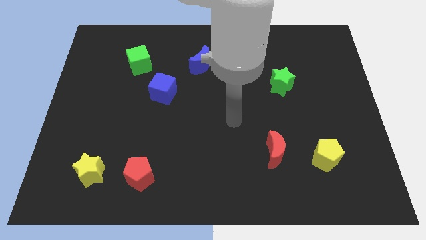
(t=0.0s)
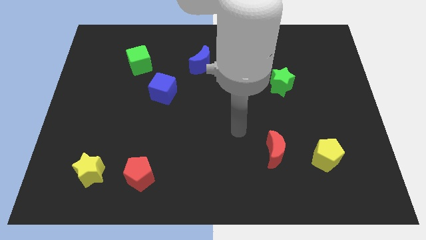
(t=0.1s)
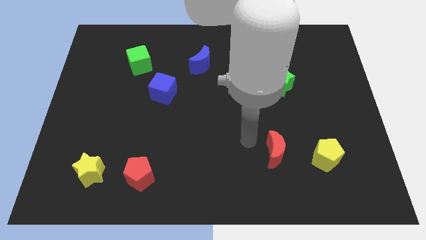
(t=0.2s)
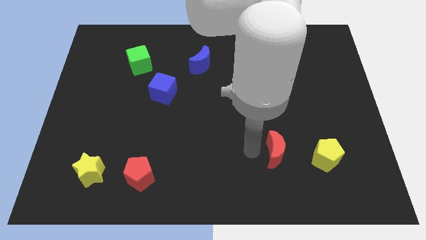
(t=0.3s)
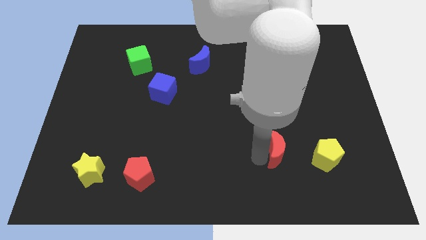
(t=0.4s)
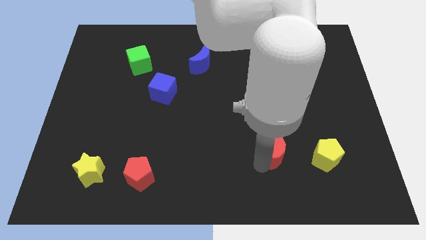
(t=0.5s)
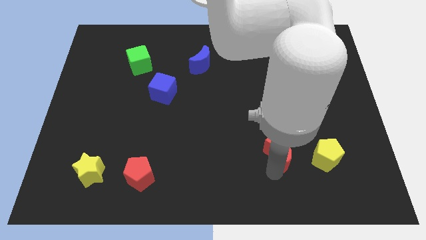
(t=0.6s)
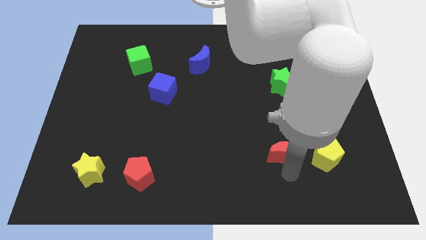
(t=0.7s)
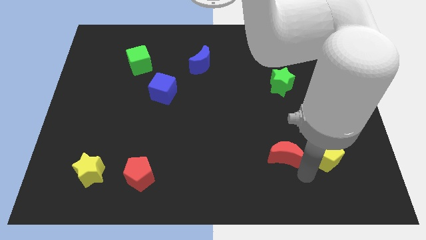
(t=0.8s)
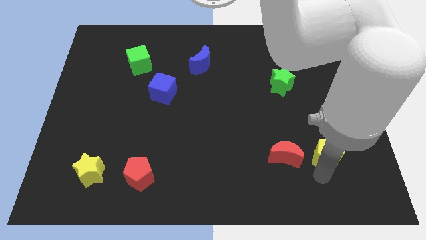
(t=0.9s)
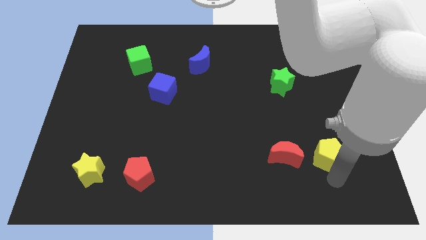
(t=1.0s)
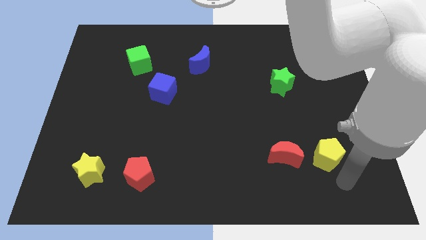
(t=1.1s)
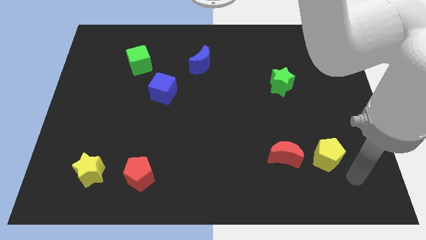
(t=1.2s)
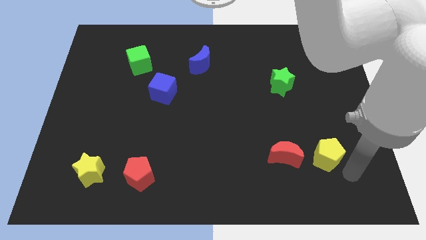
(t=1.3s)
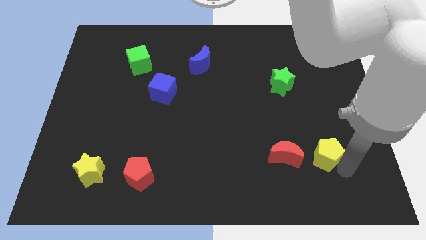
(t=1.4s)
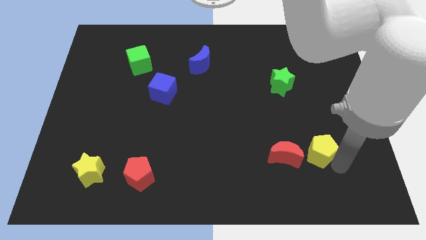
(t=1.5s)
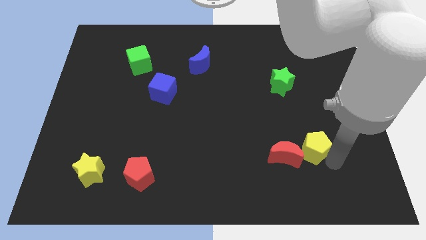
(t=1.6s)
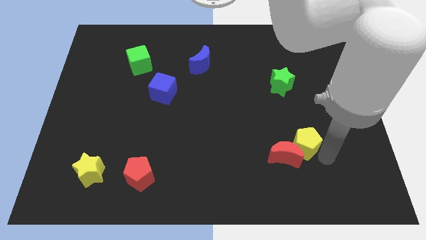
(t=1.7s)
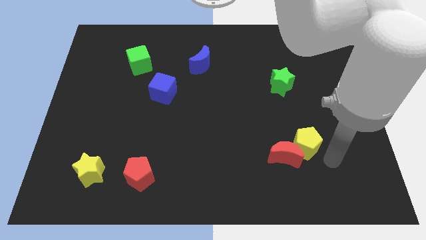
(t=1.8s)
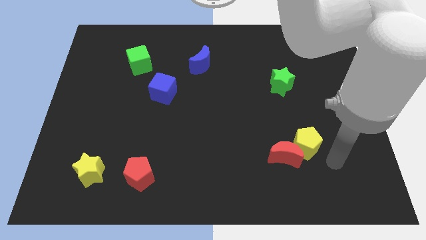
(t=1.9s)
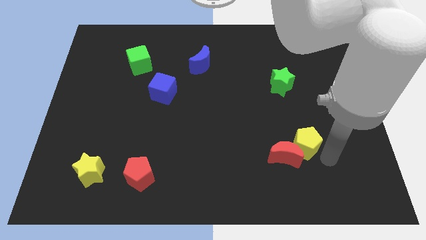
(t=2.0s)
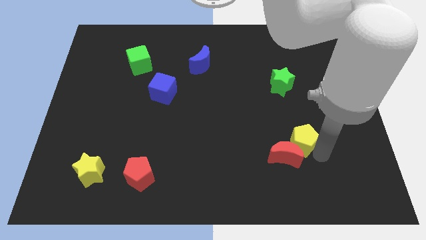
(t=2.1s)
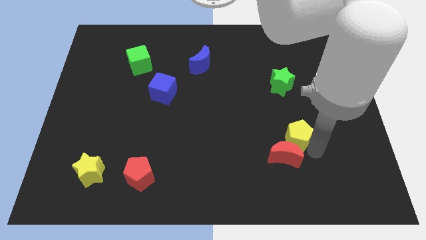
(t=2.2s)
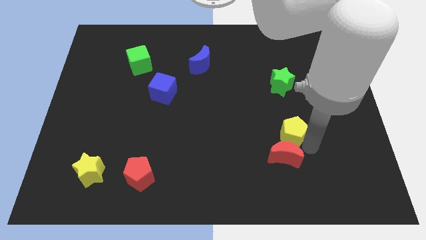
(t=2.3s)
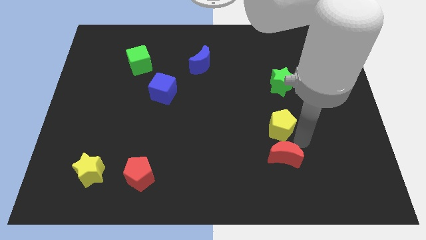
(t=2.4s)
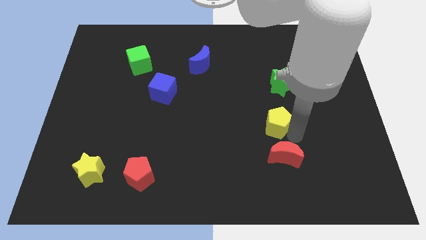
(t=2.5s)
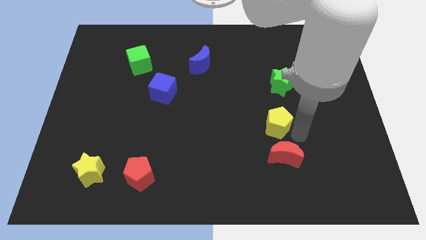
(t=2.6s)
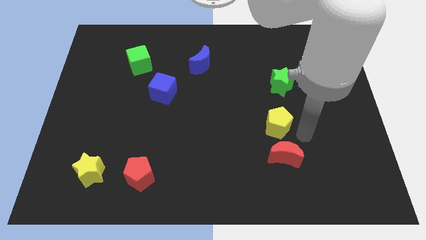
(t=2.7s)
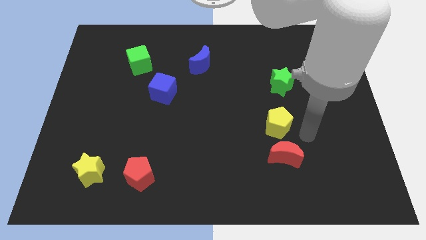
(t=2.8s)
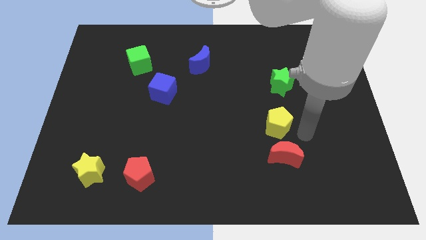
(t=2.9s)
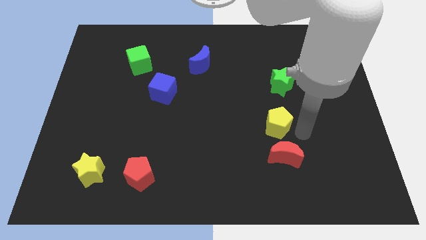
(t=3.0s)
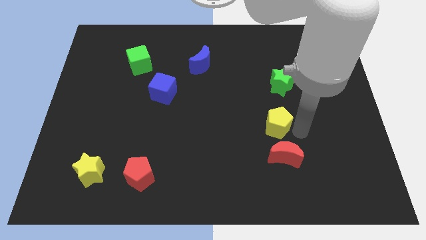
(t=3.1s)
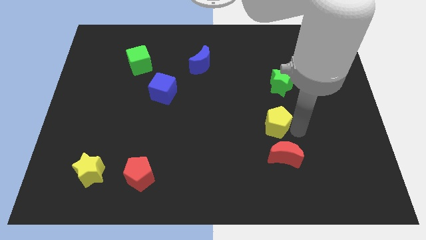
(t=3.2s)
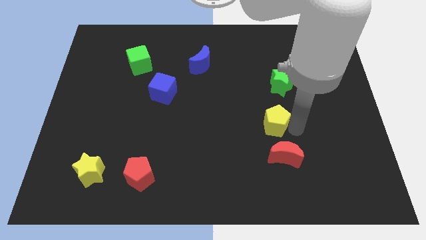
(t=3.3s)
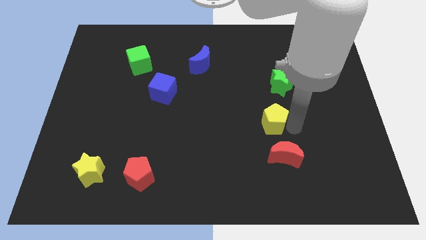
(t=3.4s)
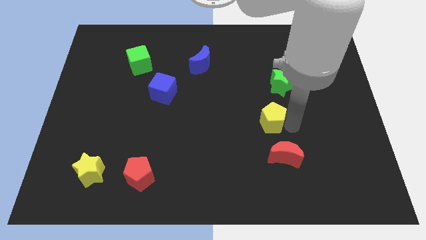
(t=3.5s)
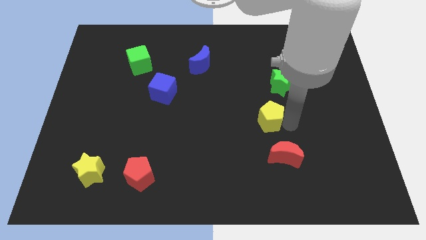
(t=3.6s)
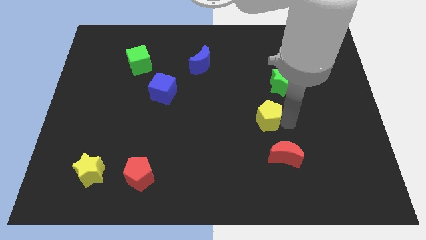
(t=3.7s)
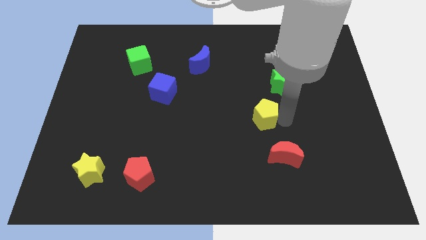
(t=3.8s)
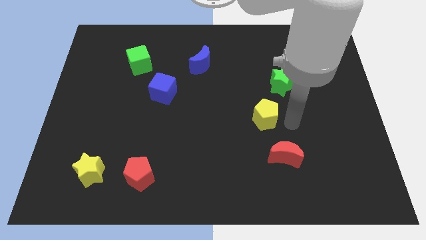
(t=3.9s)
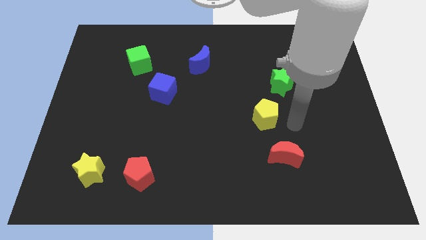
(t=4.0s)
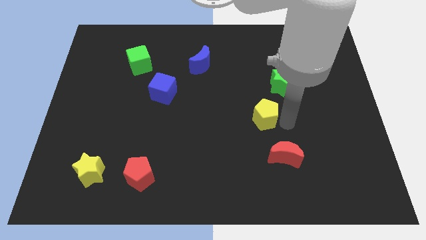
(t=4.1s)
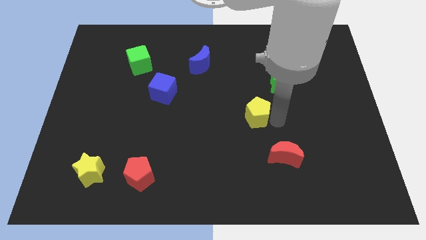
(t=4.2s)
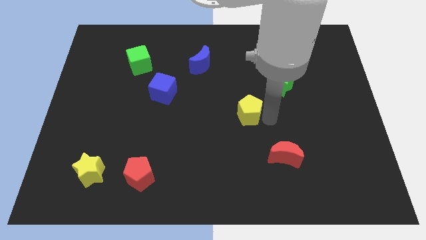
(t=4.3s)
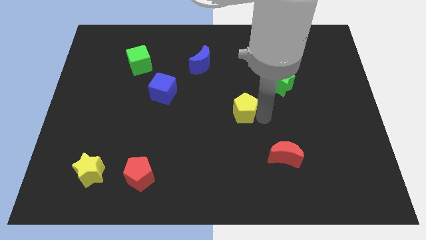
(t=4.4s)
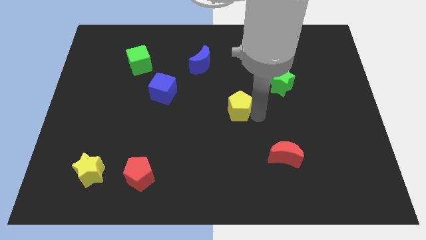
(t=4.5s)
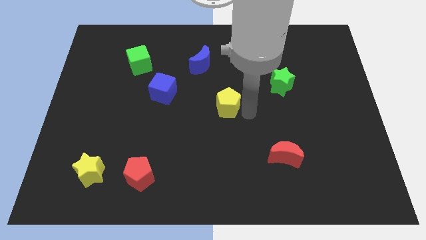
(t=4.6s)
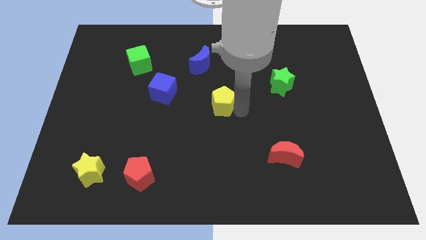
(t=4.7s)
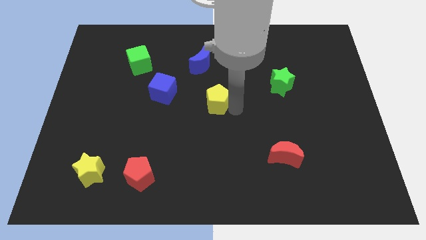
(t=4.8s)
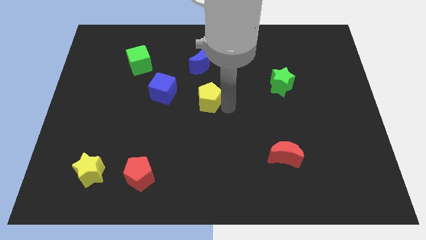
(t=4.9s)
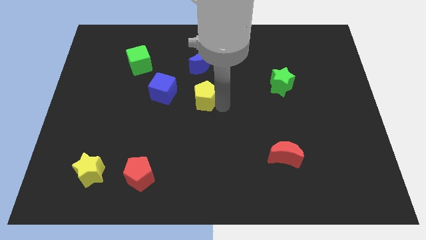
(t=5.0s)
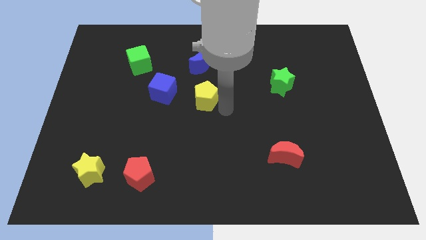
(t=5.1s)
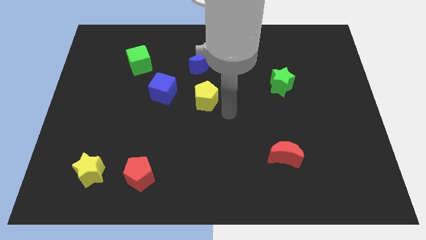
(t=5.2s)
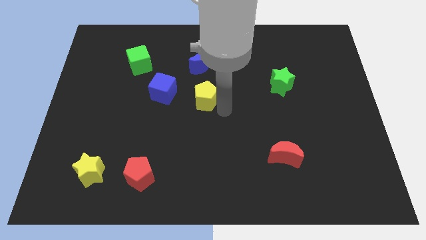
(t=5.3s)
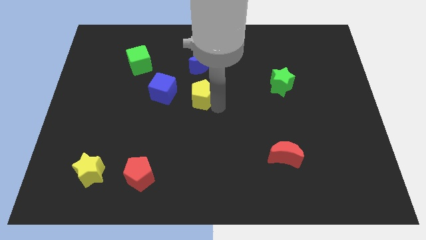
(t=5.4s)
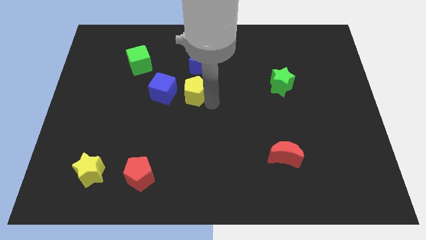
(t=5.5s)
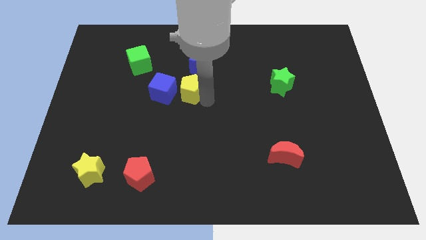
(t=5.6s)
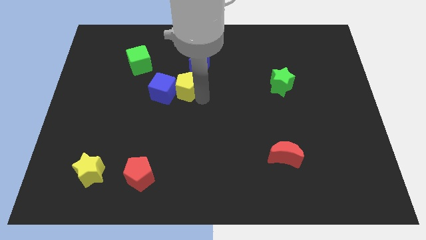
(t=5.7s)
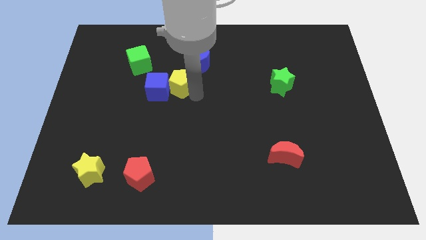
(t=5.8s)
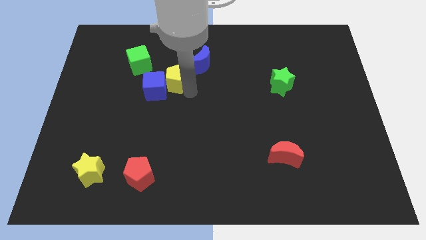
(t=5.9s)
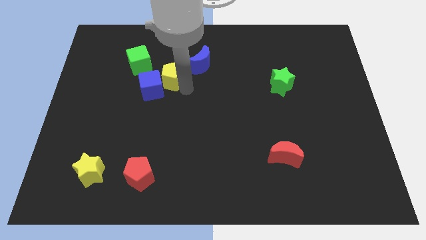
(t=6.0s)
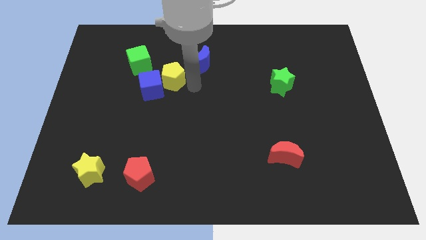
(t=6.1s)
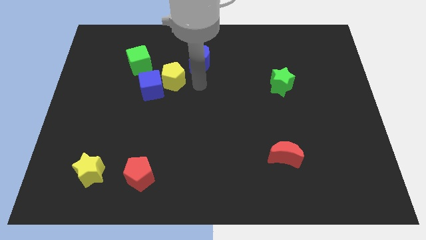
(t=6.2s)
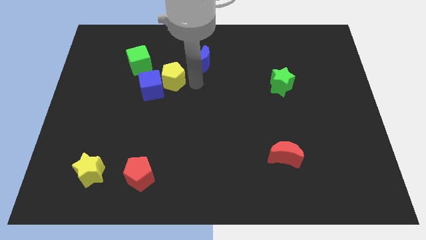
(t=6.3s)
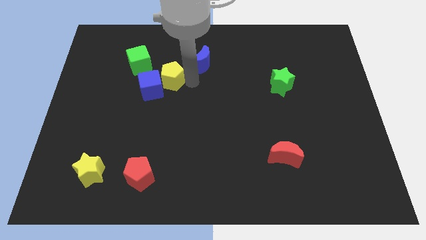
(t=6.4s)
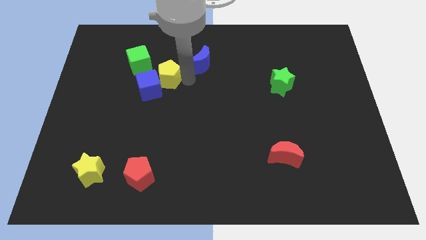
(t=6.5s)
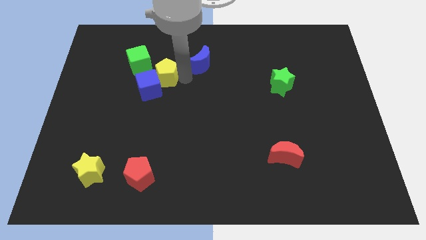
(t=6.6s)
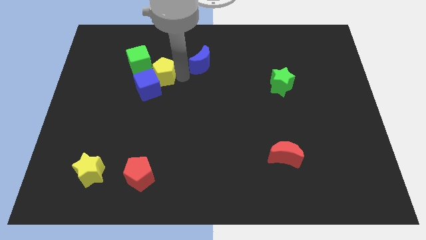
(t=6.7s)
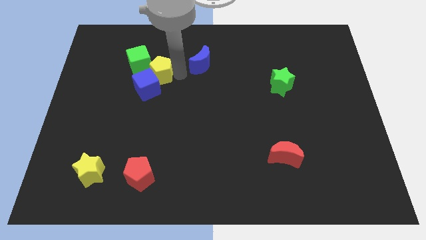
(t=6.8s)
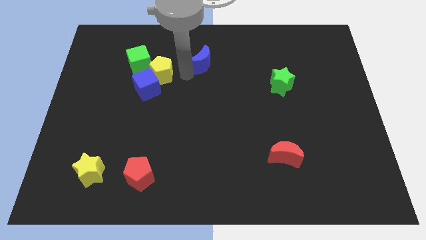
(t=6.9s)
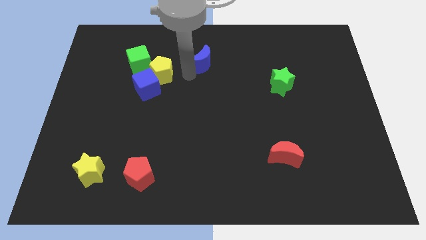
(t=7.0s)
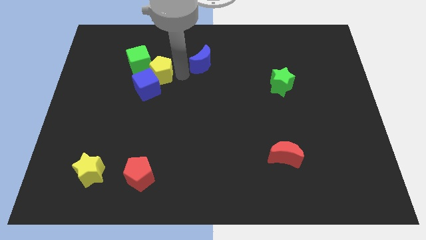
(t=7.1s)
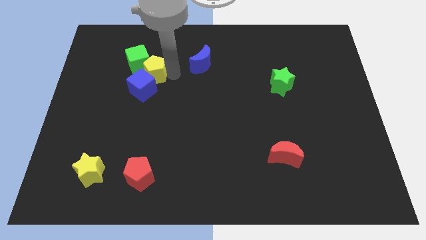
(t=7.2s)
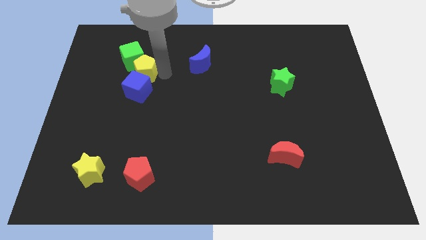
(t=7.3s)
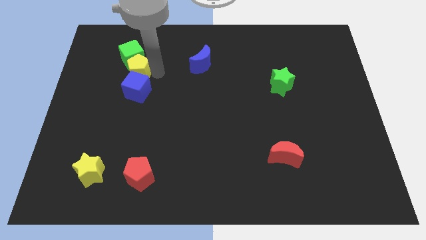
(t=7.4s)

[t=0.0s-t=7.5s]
slide the yellow pentagon to the top left of the blue cube
